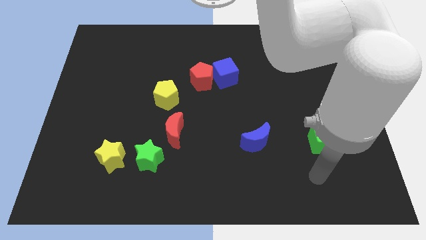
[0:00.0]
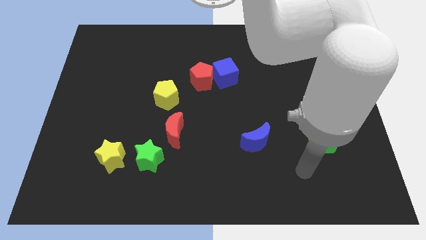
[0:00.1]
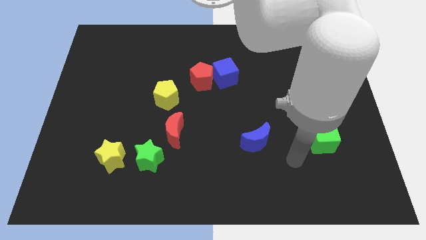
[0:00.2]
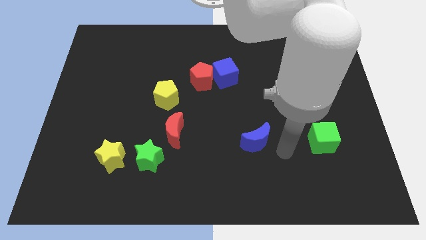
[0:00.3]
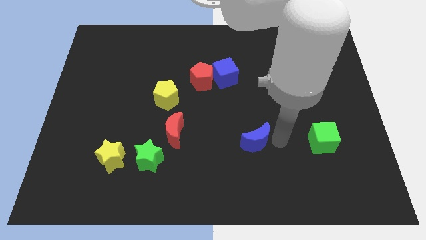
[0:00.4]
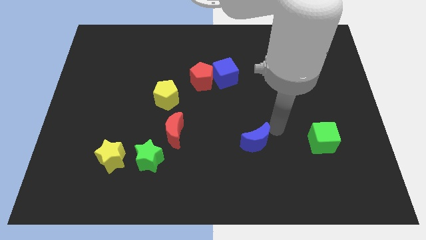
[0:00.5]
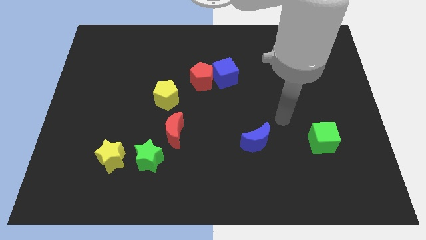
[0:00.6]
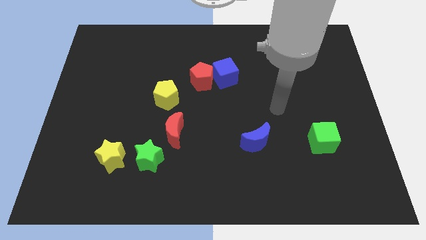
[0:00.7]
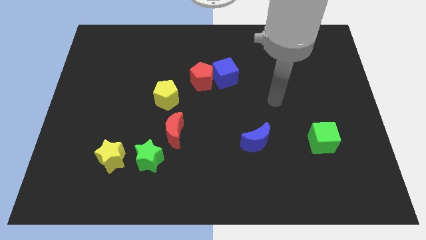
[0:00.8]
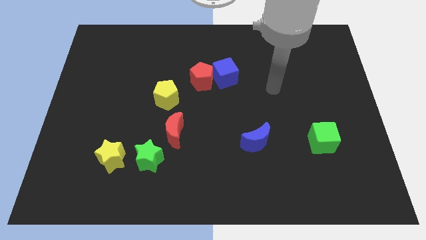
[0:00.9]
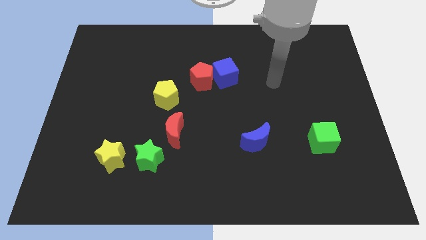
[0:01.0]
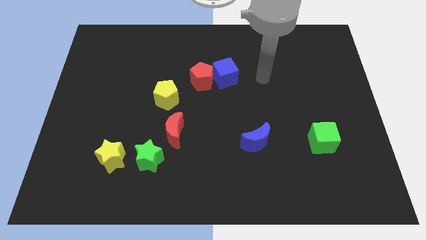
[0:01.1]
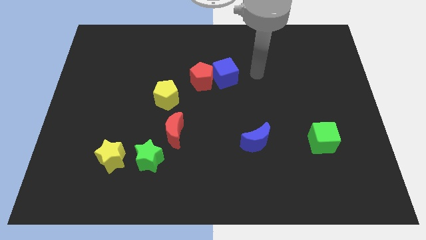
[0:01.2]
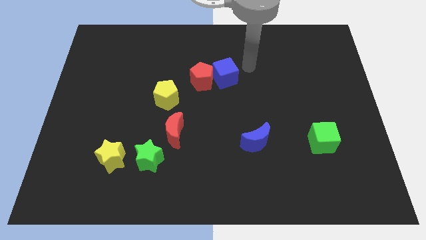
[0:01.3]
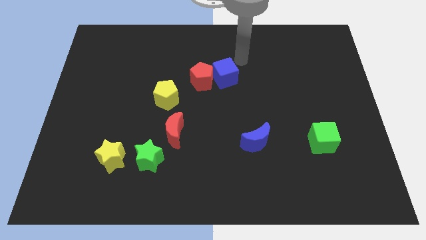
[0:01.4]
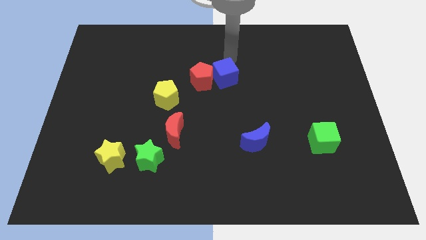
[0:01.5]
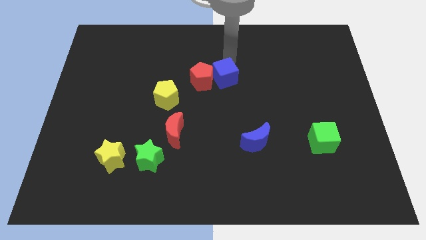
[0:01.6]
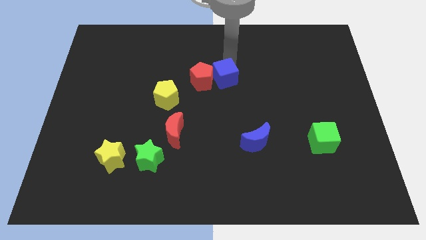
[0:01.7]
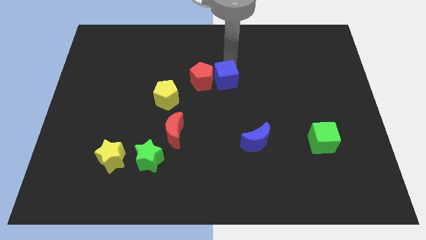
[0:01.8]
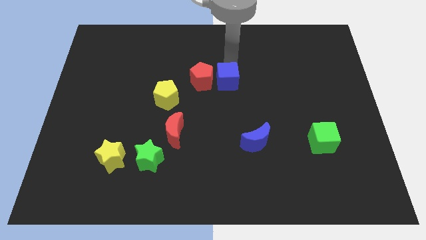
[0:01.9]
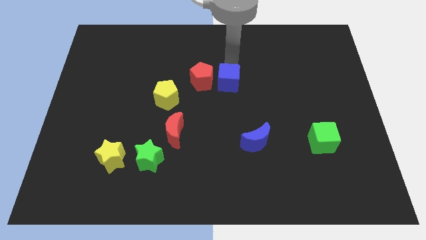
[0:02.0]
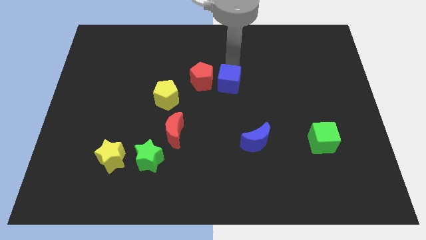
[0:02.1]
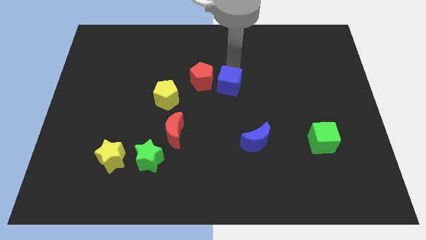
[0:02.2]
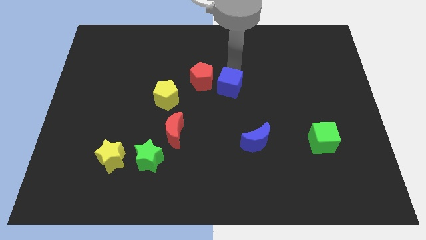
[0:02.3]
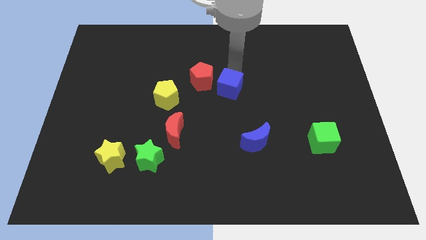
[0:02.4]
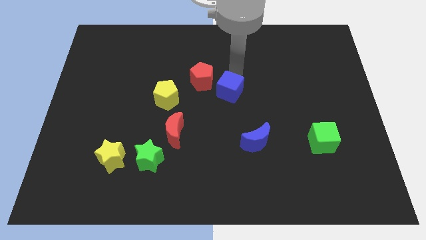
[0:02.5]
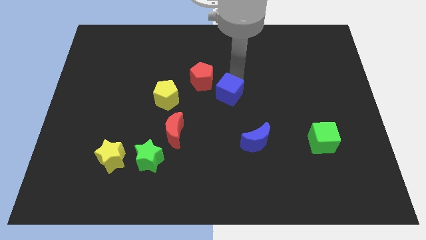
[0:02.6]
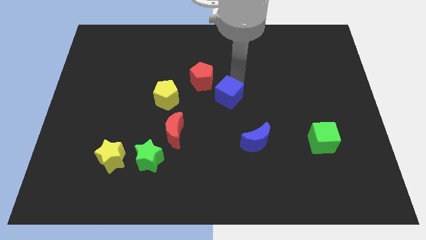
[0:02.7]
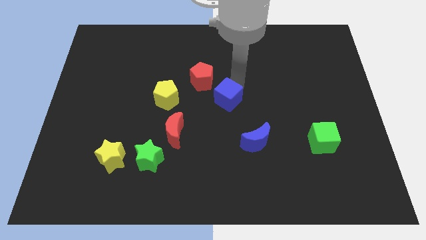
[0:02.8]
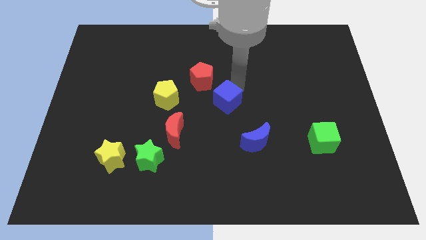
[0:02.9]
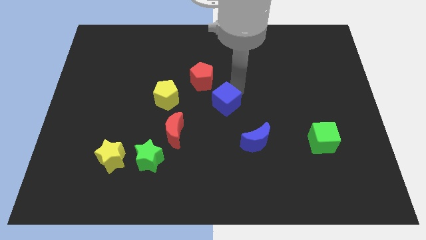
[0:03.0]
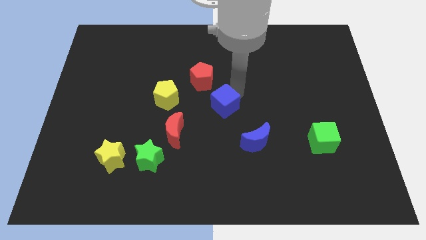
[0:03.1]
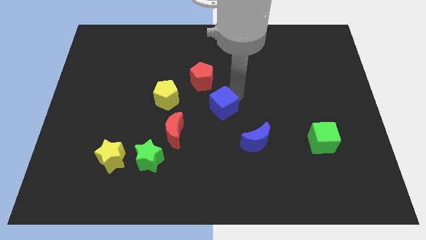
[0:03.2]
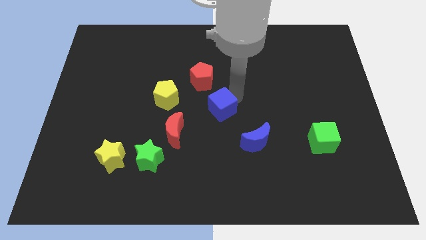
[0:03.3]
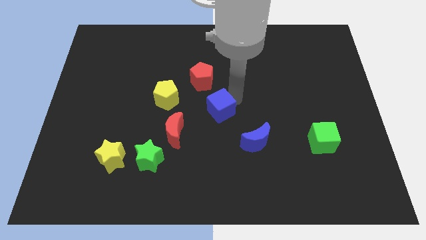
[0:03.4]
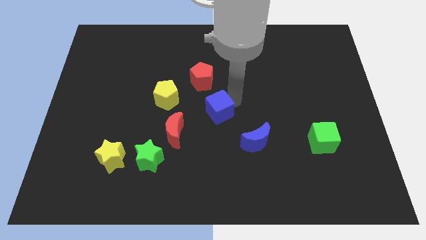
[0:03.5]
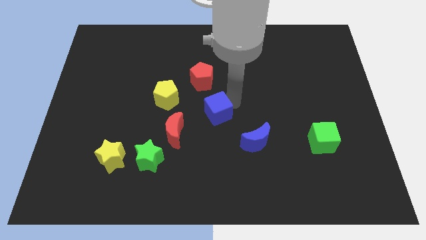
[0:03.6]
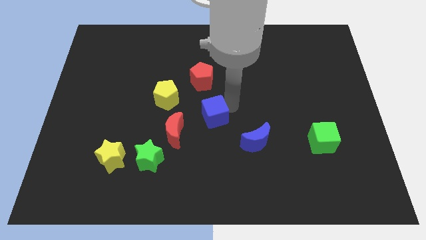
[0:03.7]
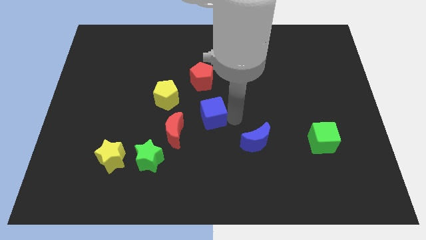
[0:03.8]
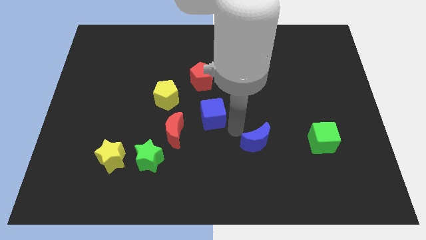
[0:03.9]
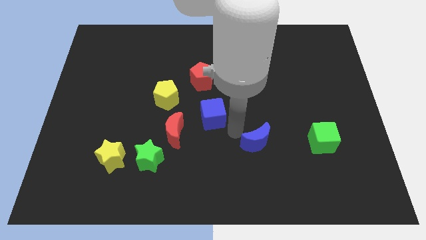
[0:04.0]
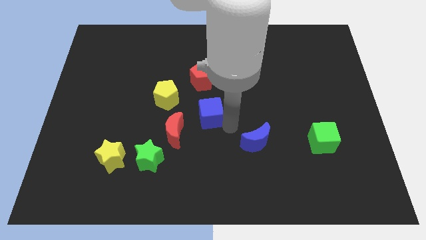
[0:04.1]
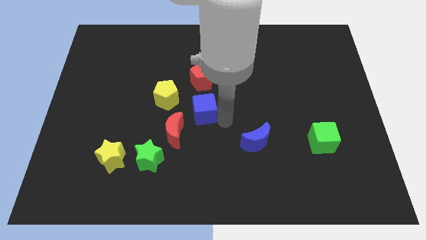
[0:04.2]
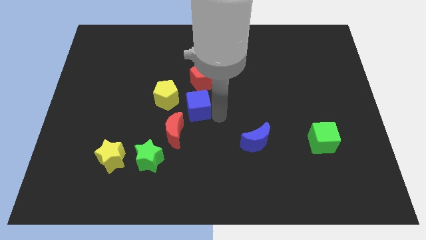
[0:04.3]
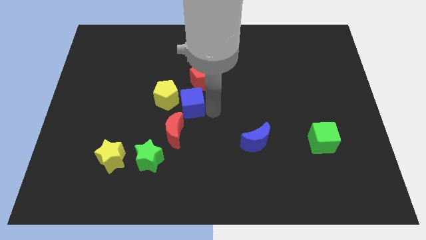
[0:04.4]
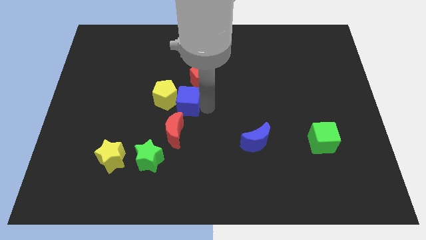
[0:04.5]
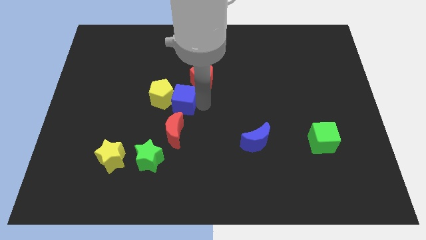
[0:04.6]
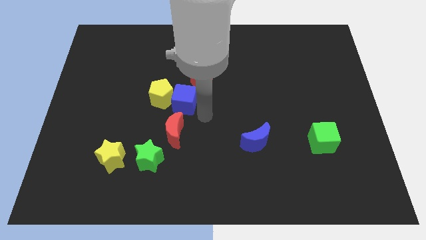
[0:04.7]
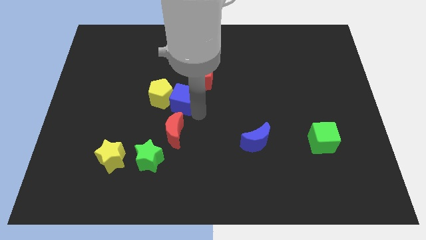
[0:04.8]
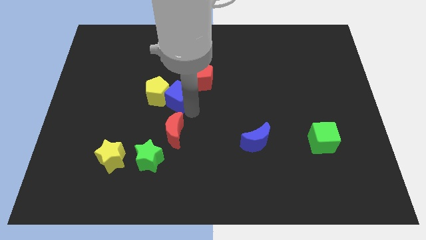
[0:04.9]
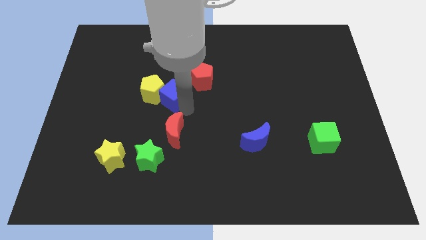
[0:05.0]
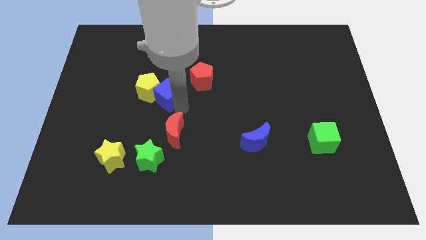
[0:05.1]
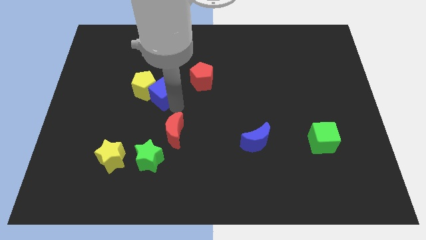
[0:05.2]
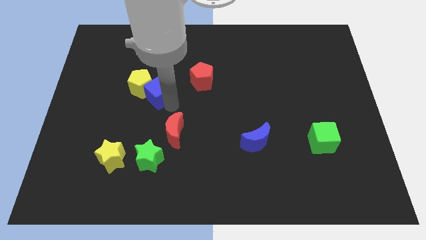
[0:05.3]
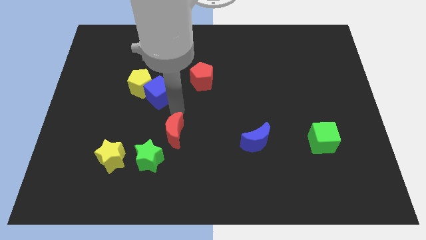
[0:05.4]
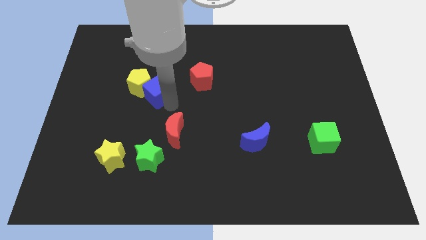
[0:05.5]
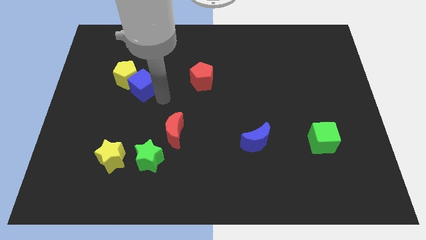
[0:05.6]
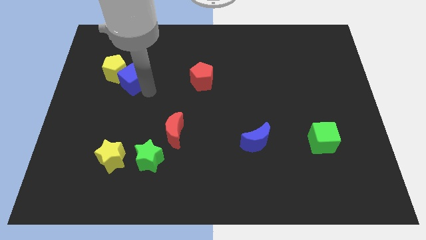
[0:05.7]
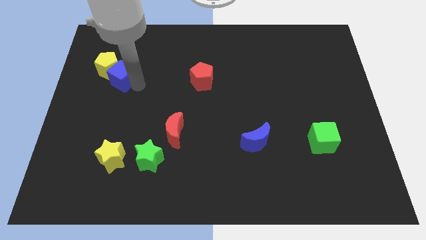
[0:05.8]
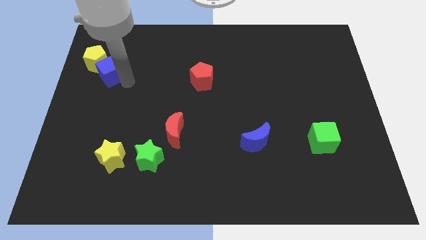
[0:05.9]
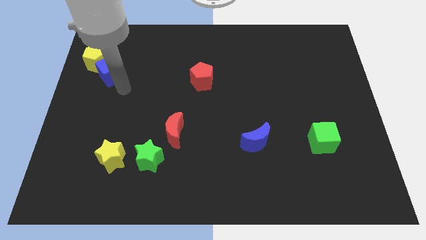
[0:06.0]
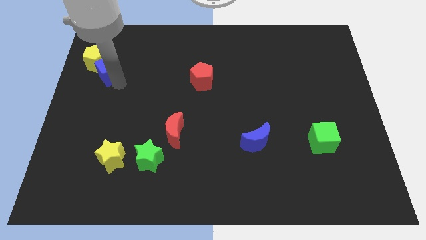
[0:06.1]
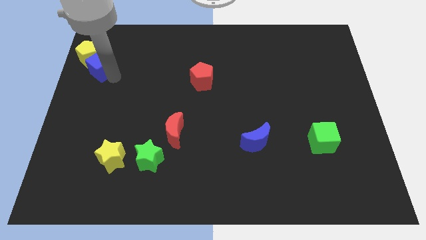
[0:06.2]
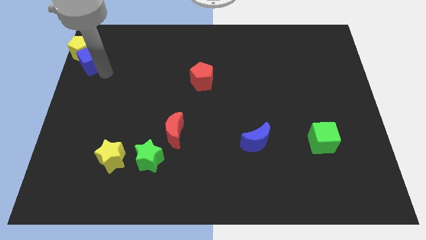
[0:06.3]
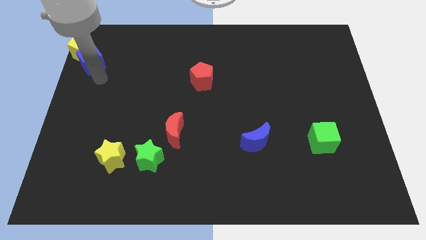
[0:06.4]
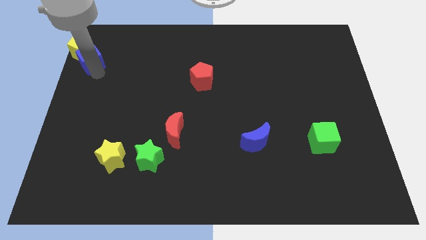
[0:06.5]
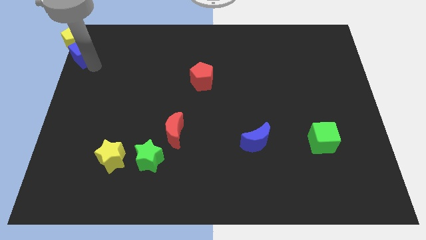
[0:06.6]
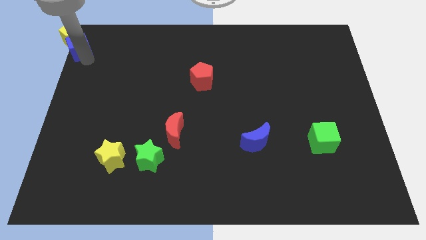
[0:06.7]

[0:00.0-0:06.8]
put the blue cube to the top left of the board

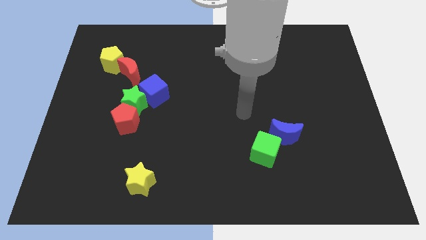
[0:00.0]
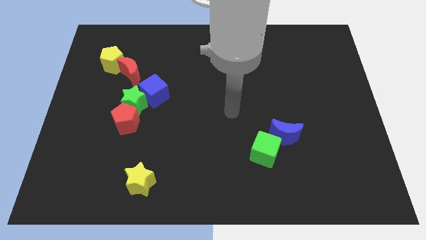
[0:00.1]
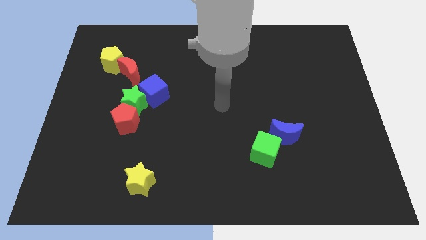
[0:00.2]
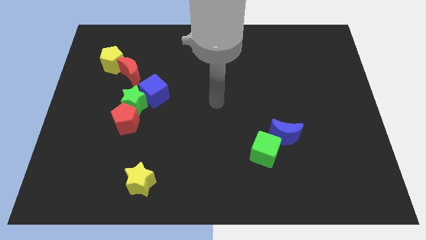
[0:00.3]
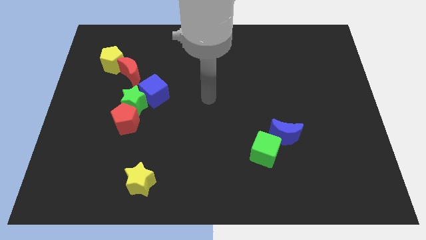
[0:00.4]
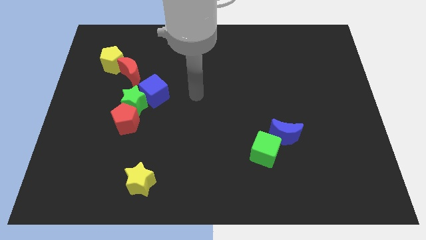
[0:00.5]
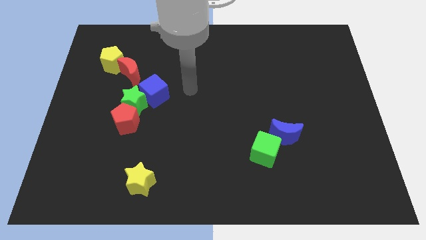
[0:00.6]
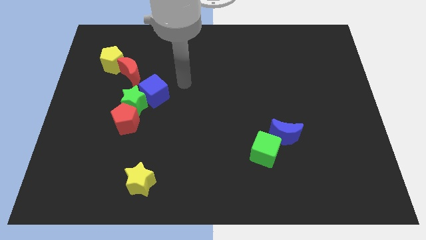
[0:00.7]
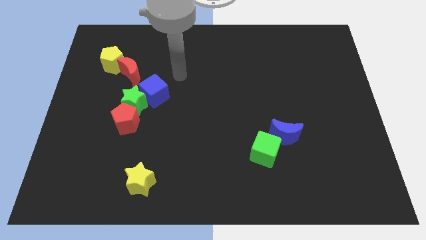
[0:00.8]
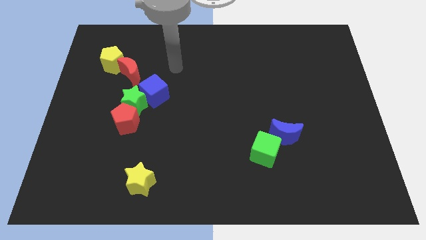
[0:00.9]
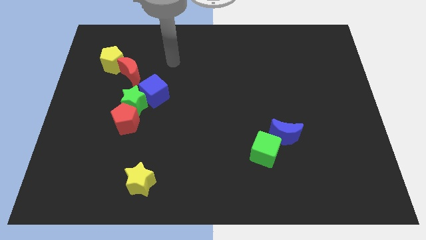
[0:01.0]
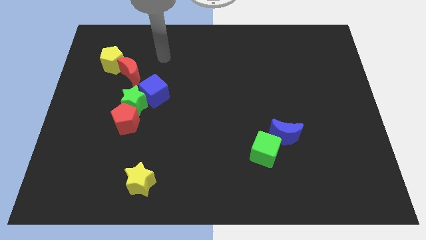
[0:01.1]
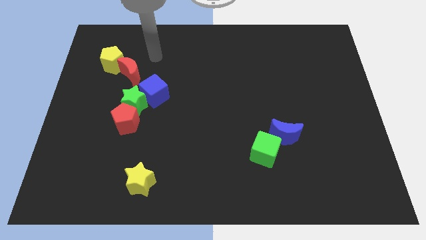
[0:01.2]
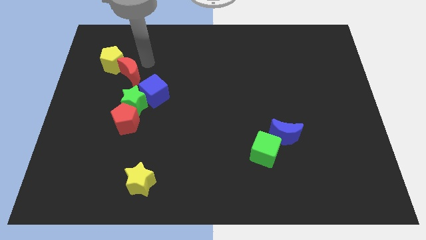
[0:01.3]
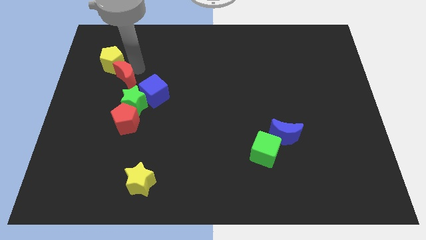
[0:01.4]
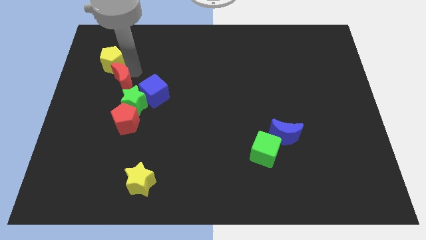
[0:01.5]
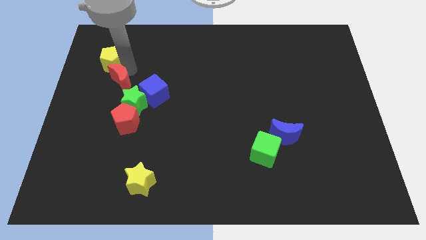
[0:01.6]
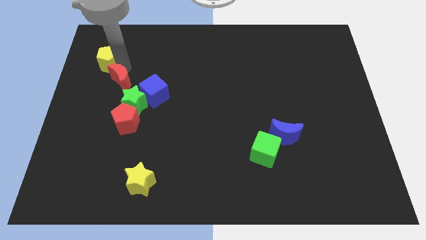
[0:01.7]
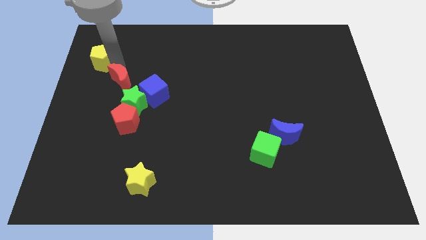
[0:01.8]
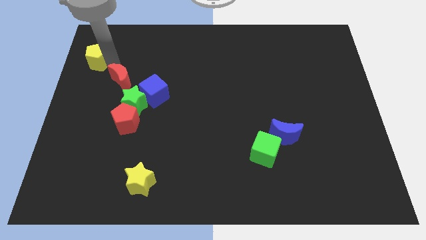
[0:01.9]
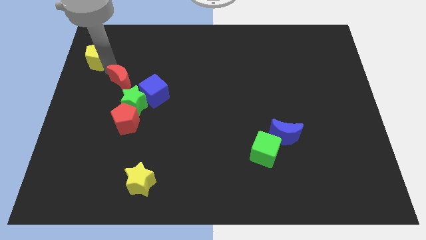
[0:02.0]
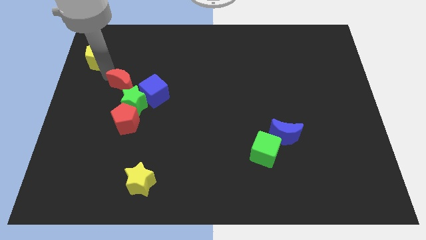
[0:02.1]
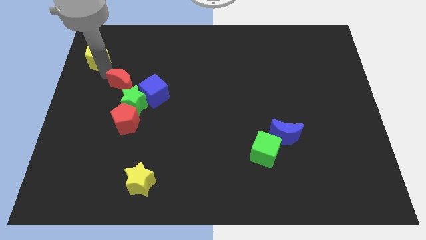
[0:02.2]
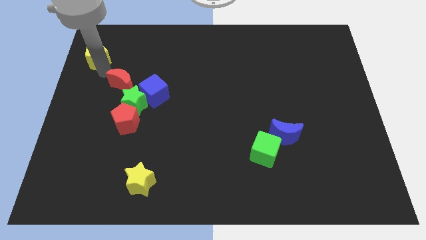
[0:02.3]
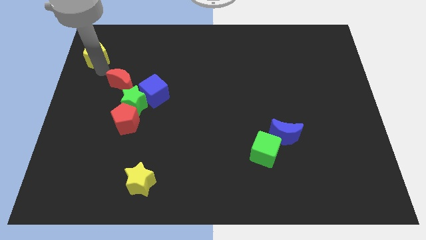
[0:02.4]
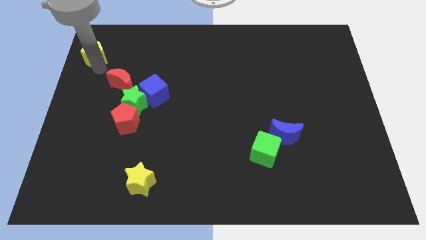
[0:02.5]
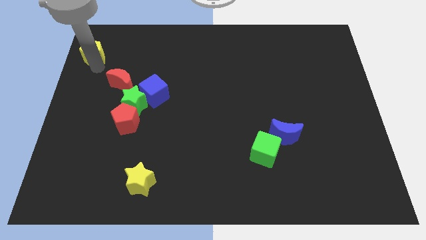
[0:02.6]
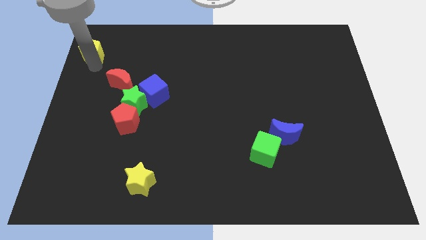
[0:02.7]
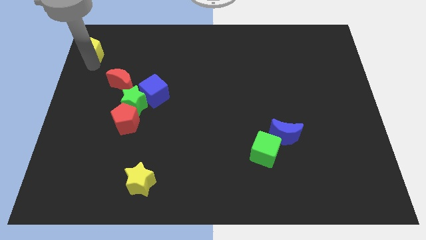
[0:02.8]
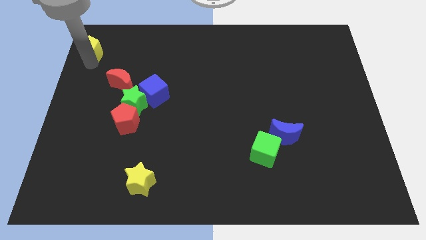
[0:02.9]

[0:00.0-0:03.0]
move the yellow pentagon to the upper left corner
